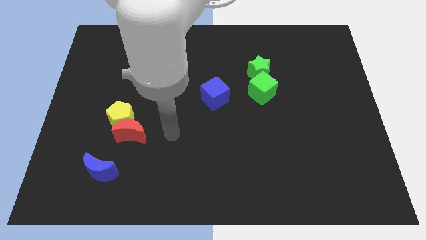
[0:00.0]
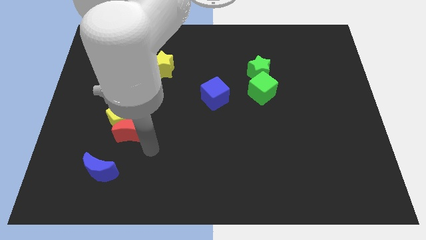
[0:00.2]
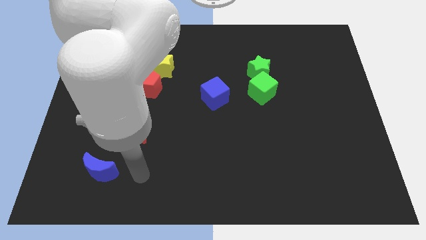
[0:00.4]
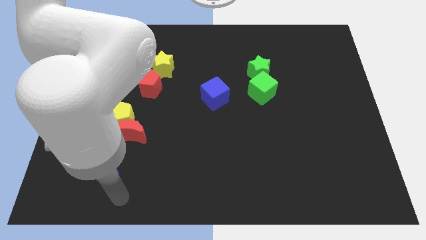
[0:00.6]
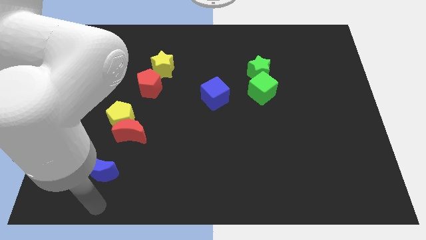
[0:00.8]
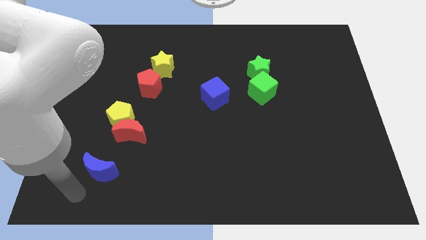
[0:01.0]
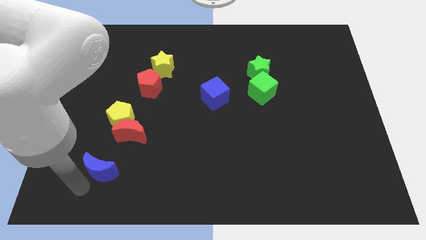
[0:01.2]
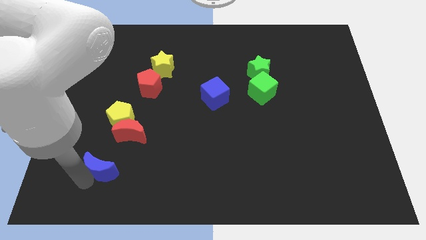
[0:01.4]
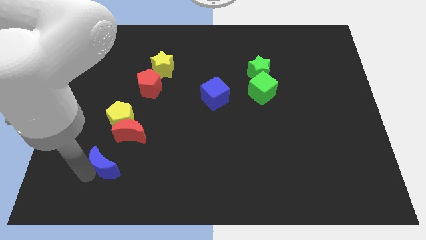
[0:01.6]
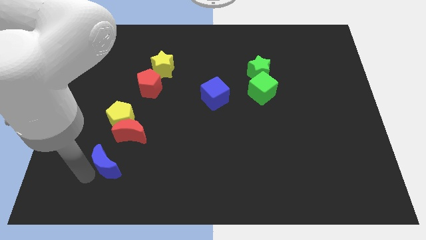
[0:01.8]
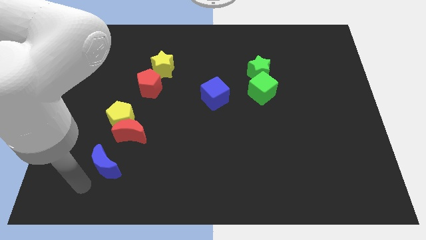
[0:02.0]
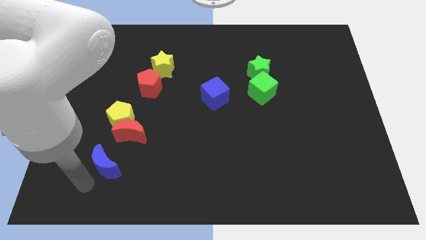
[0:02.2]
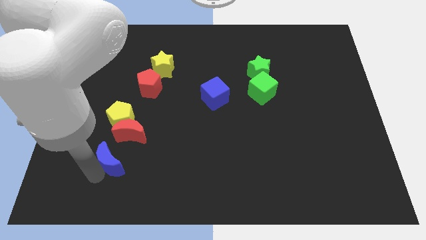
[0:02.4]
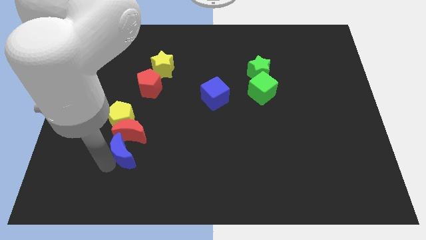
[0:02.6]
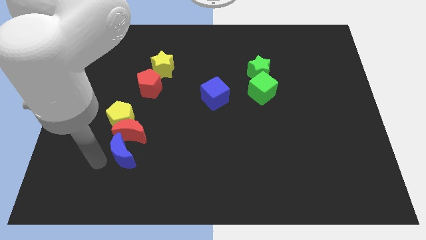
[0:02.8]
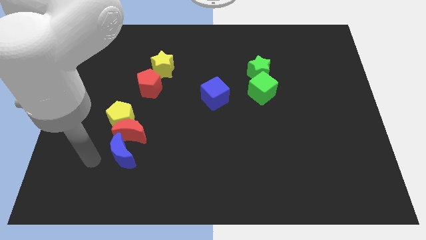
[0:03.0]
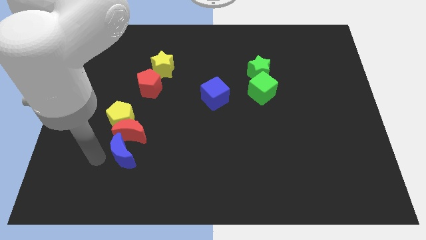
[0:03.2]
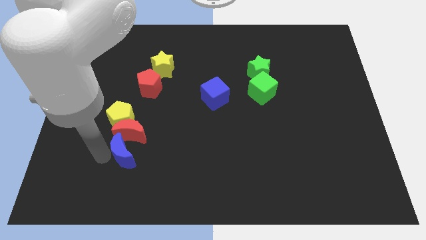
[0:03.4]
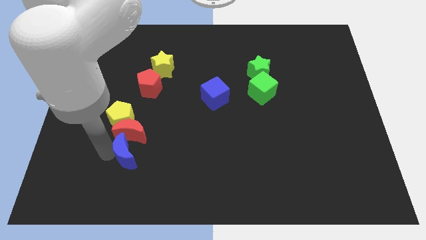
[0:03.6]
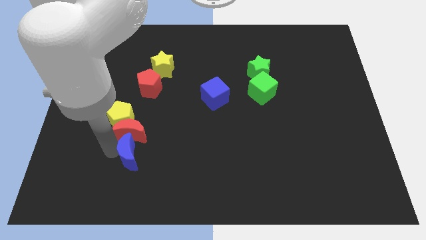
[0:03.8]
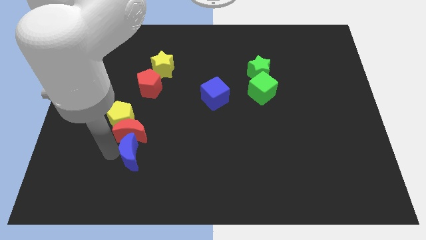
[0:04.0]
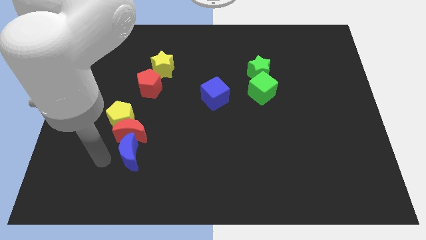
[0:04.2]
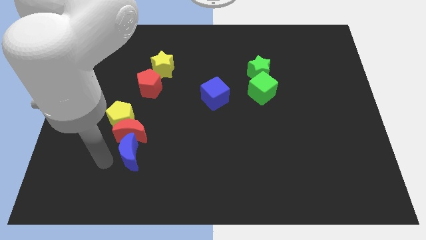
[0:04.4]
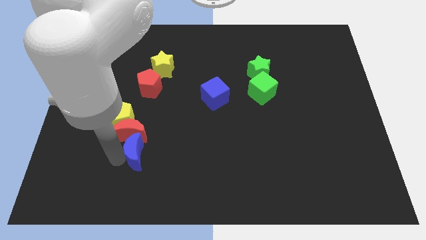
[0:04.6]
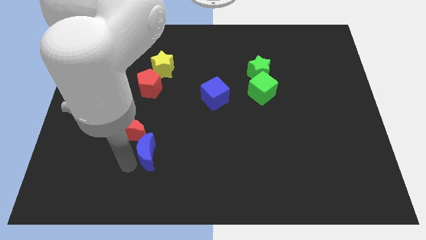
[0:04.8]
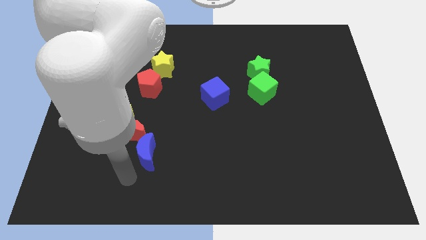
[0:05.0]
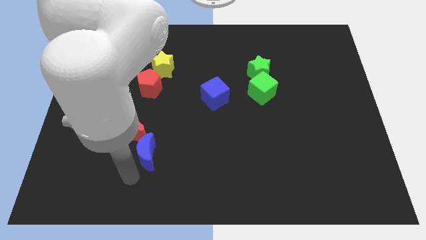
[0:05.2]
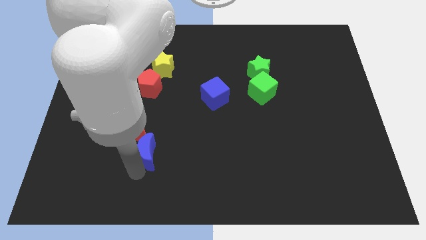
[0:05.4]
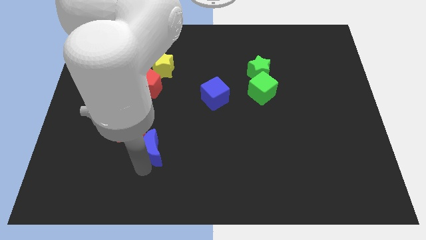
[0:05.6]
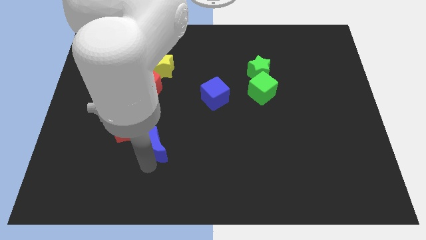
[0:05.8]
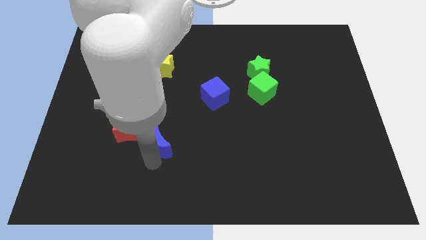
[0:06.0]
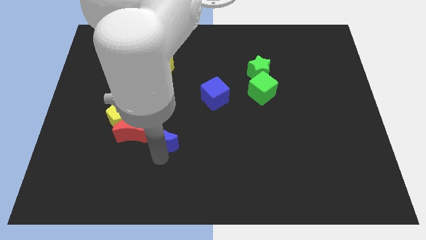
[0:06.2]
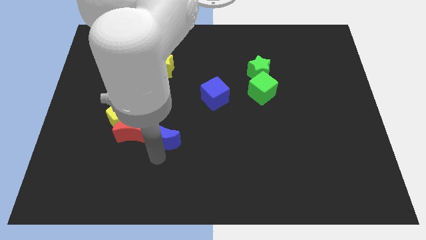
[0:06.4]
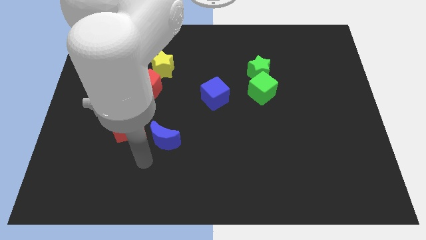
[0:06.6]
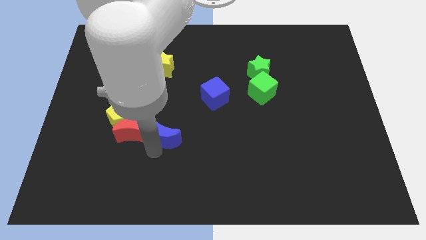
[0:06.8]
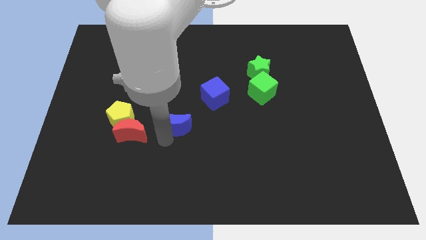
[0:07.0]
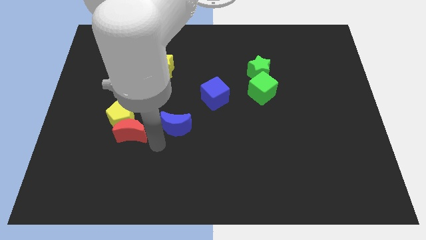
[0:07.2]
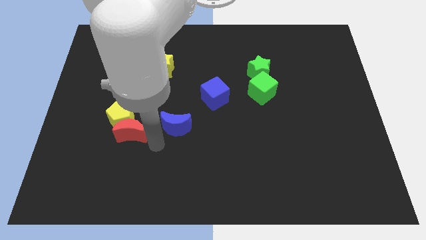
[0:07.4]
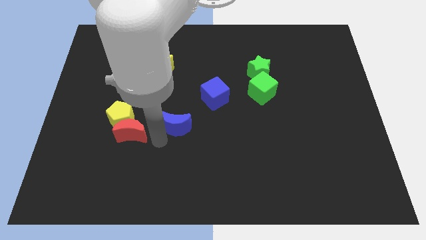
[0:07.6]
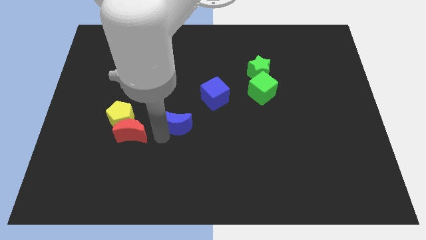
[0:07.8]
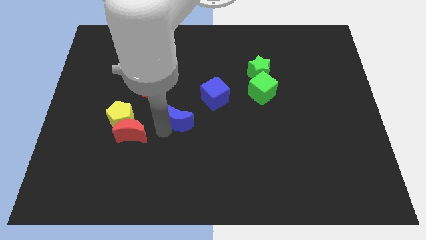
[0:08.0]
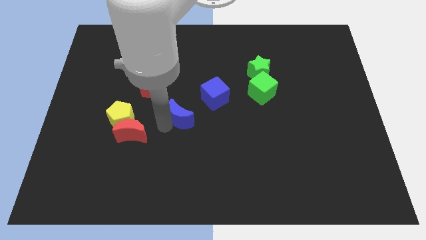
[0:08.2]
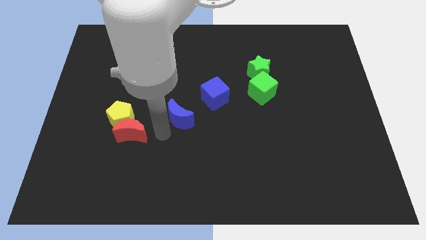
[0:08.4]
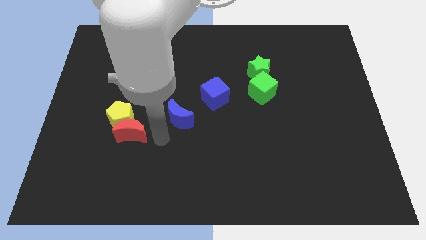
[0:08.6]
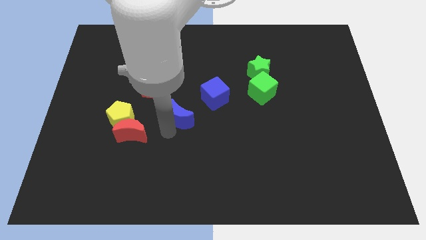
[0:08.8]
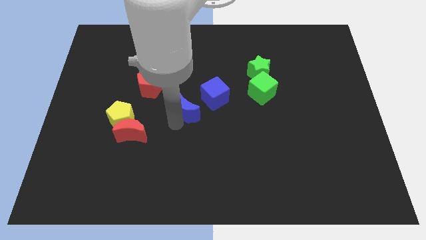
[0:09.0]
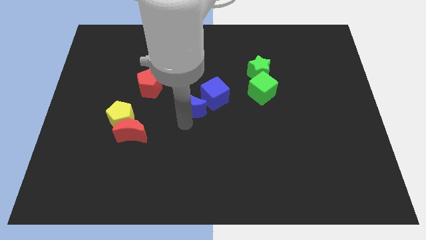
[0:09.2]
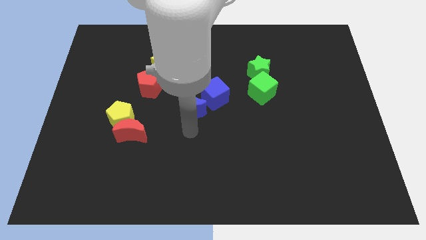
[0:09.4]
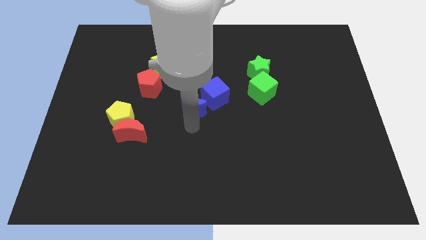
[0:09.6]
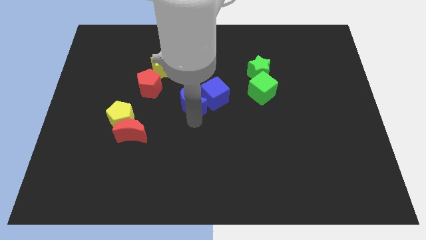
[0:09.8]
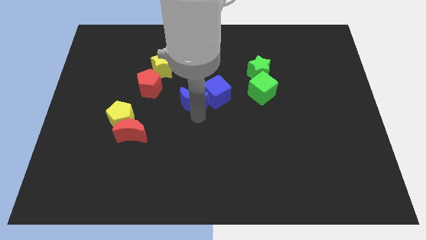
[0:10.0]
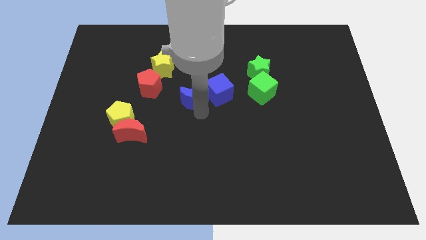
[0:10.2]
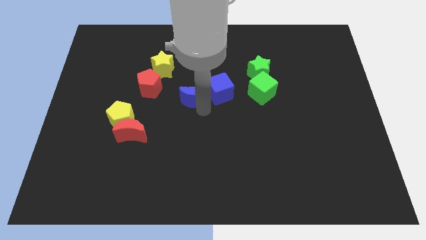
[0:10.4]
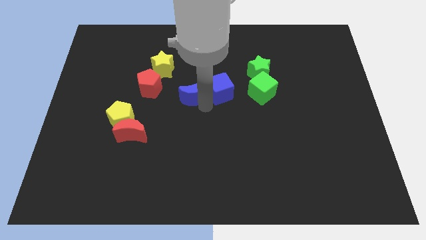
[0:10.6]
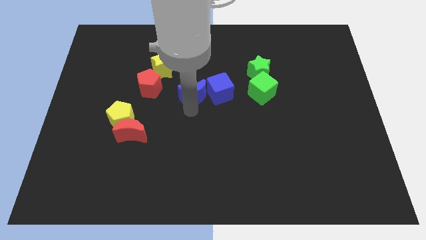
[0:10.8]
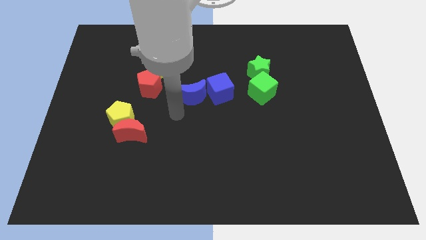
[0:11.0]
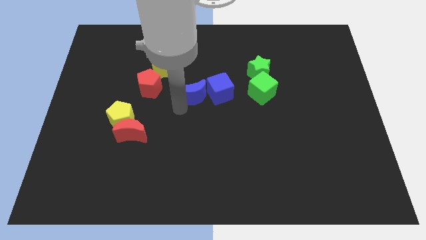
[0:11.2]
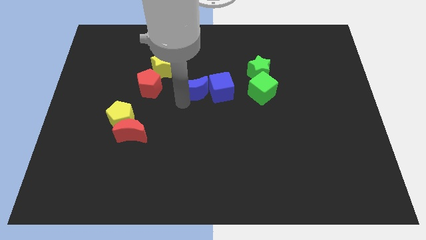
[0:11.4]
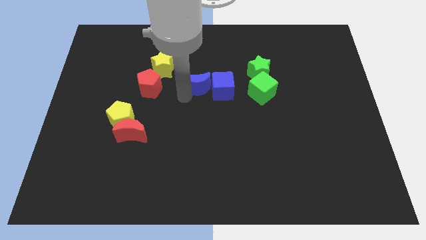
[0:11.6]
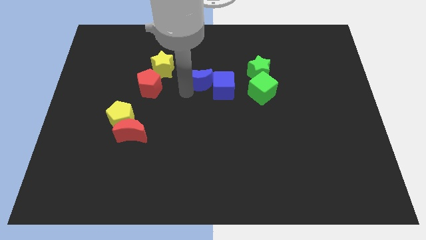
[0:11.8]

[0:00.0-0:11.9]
push the blue moon left of the green star

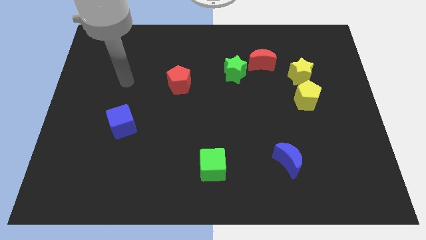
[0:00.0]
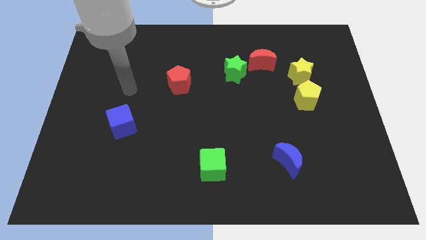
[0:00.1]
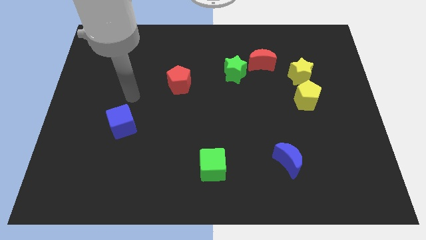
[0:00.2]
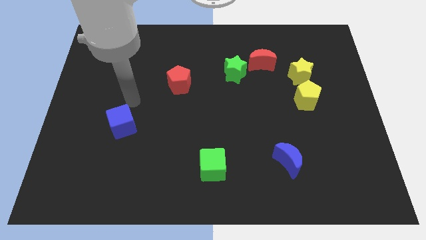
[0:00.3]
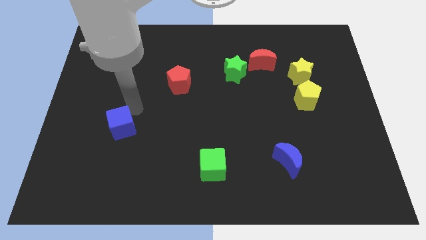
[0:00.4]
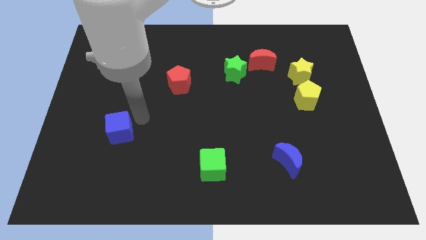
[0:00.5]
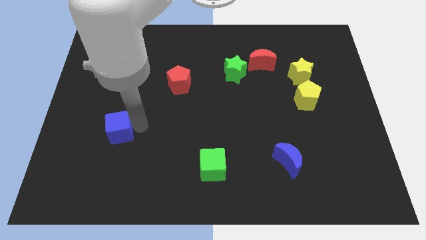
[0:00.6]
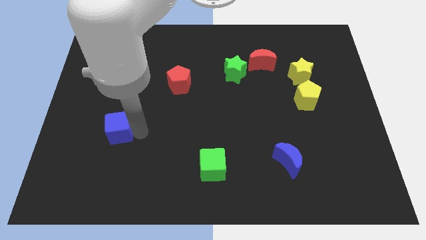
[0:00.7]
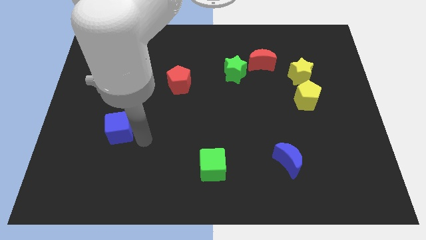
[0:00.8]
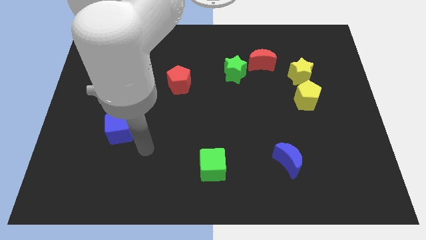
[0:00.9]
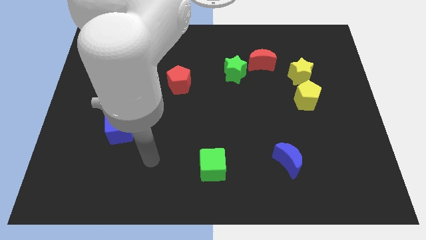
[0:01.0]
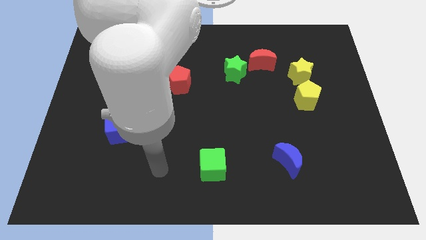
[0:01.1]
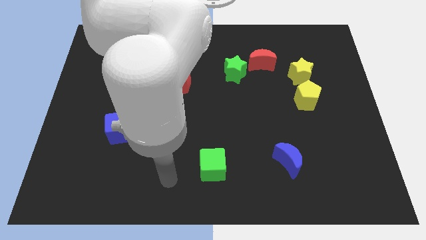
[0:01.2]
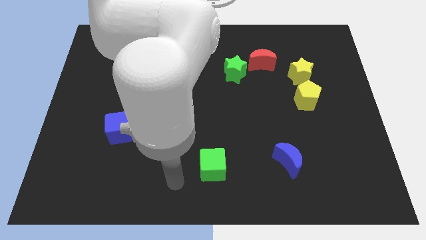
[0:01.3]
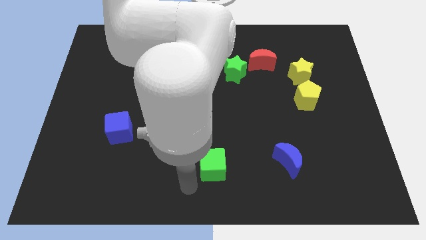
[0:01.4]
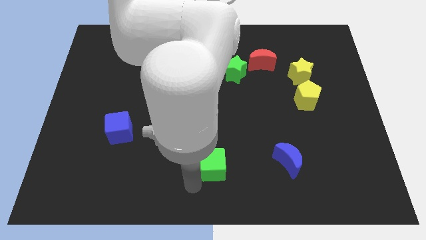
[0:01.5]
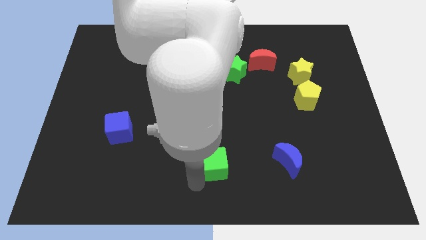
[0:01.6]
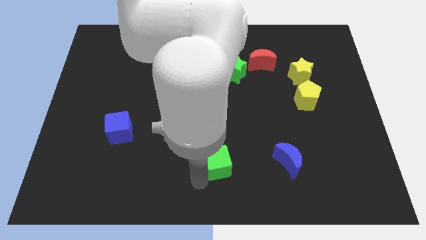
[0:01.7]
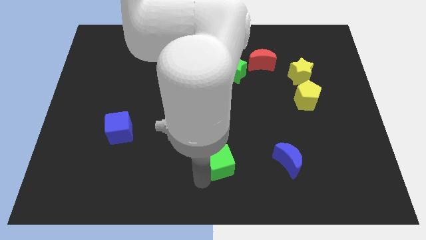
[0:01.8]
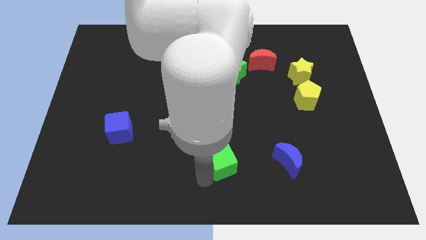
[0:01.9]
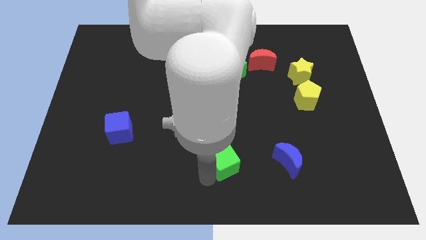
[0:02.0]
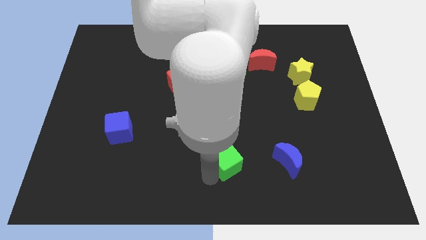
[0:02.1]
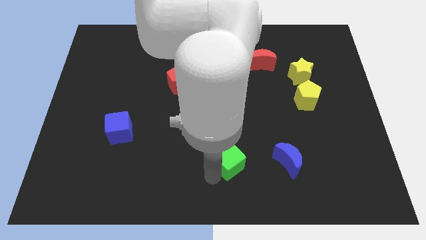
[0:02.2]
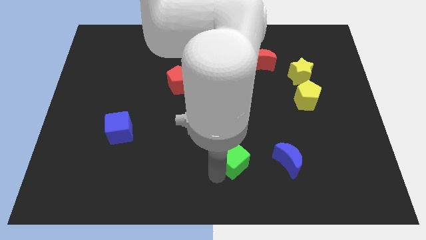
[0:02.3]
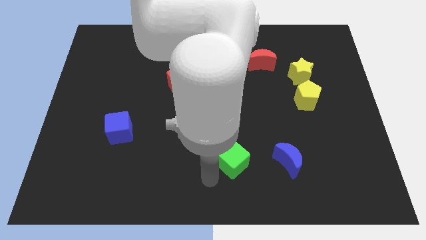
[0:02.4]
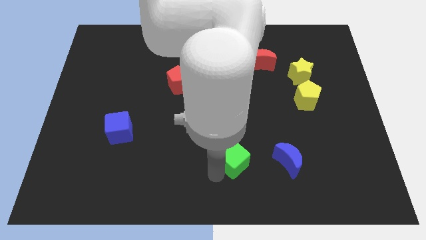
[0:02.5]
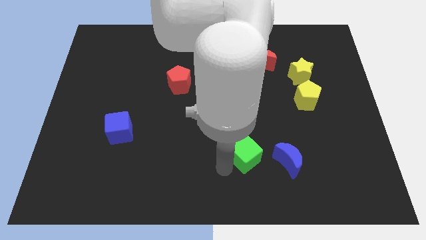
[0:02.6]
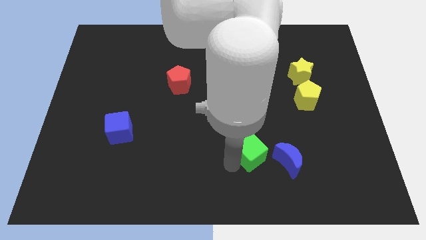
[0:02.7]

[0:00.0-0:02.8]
push the green cube diagonally up and to the left of the blue moon
